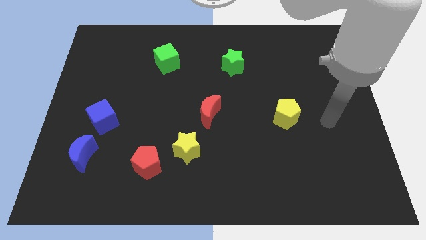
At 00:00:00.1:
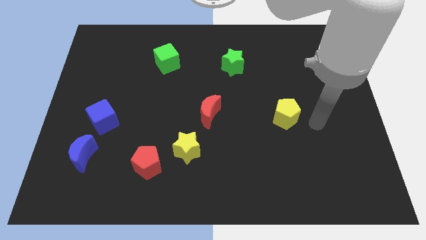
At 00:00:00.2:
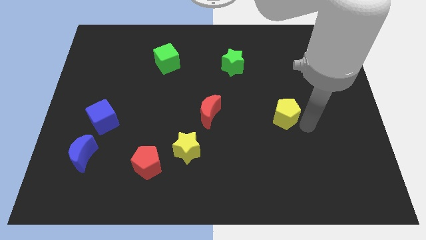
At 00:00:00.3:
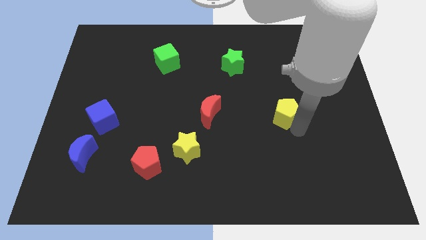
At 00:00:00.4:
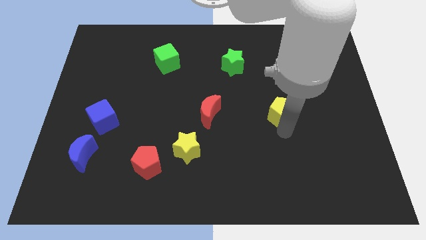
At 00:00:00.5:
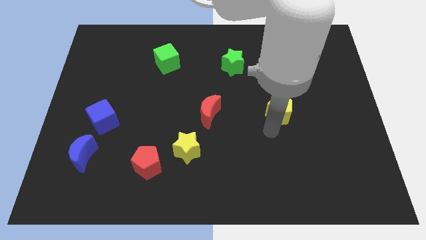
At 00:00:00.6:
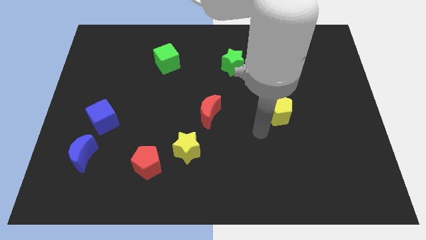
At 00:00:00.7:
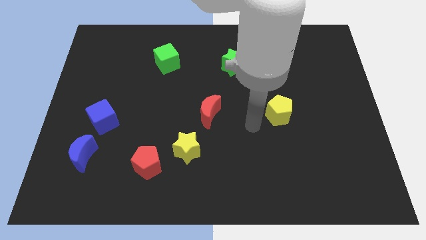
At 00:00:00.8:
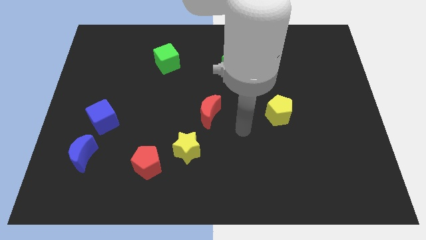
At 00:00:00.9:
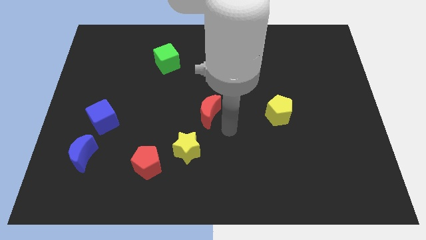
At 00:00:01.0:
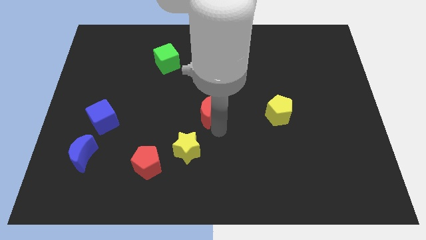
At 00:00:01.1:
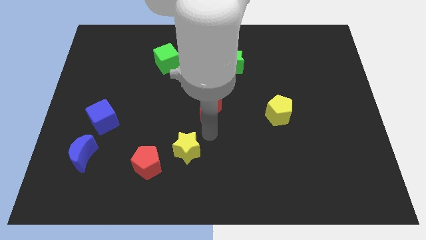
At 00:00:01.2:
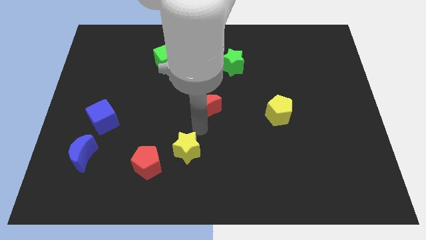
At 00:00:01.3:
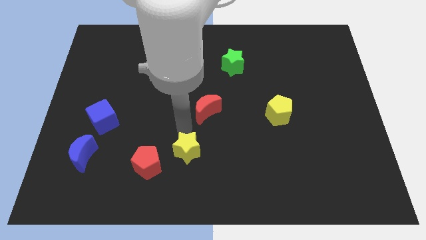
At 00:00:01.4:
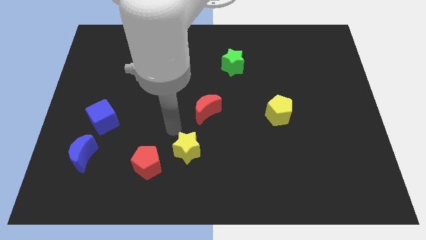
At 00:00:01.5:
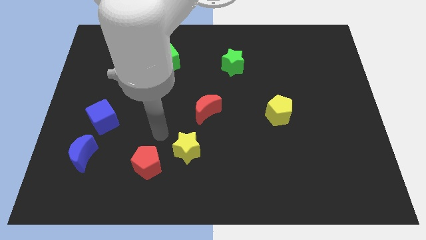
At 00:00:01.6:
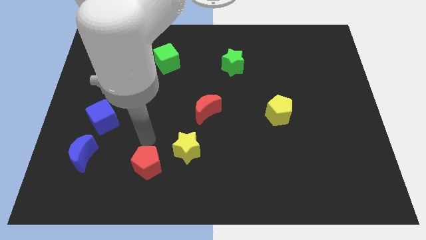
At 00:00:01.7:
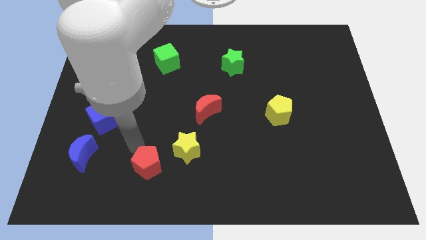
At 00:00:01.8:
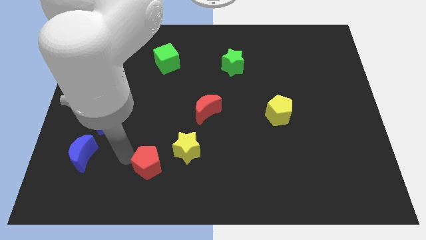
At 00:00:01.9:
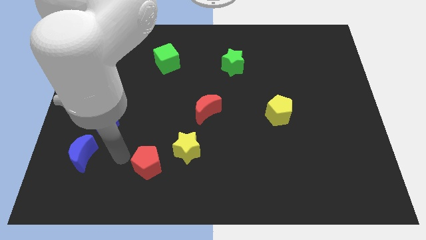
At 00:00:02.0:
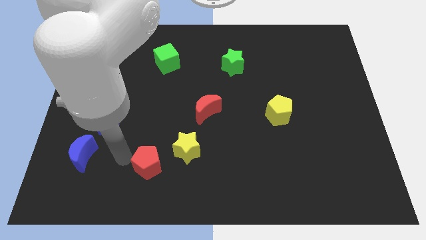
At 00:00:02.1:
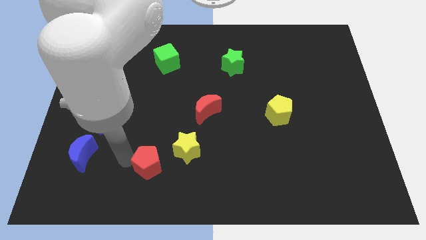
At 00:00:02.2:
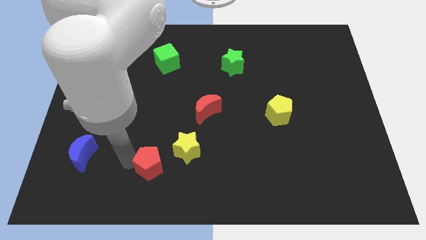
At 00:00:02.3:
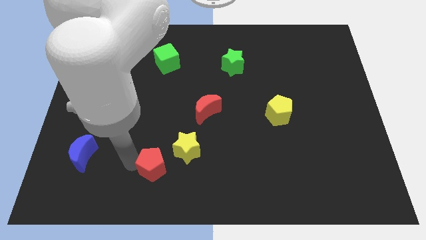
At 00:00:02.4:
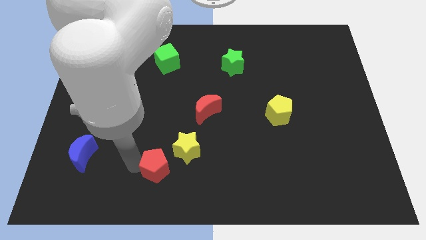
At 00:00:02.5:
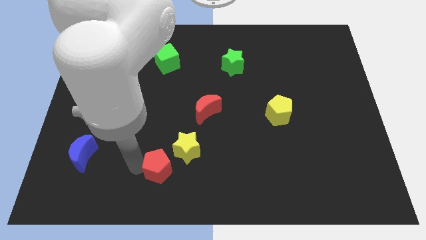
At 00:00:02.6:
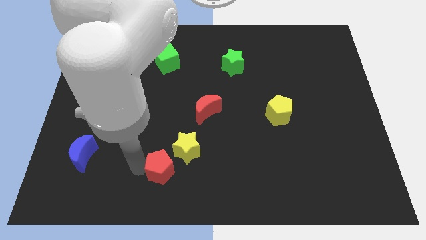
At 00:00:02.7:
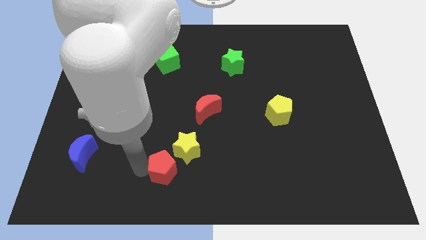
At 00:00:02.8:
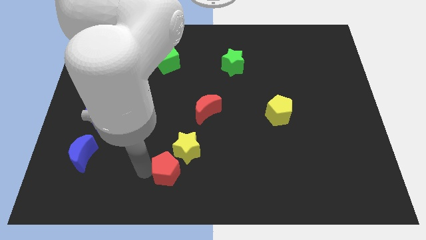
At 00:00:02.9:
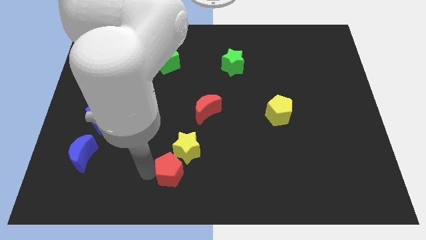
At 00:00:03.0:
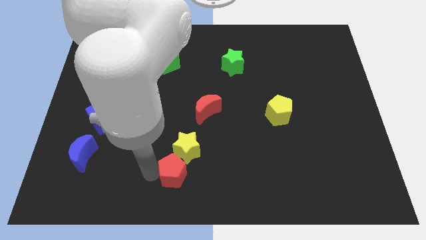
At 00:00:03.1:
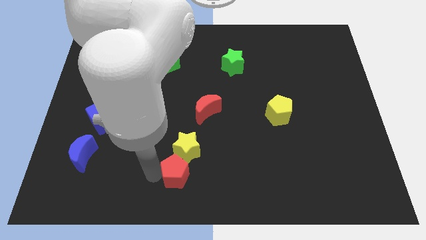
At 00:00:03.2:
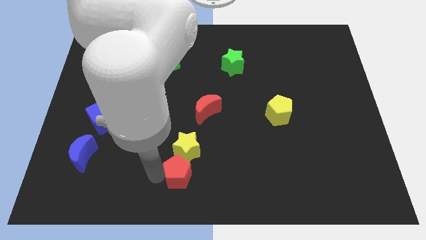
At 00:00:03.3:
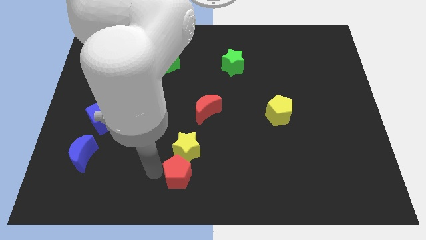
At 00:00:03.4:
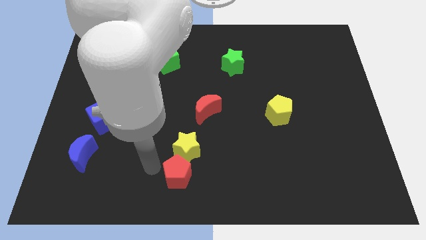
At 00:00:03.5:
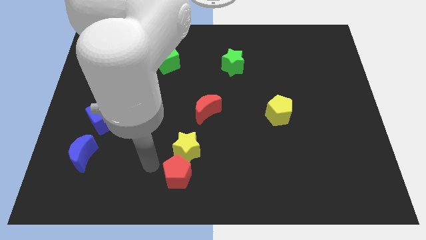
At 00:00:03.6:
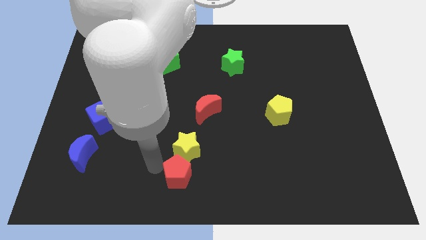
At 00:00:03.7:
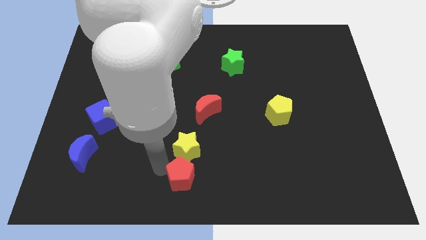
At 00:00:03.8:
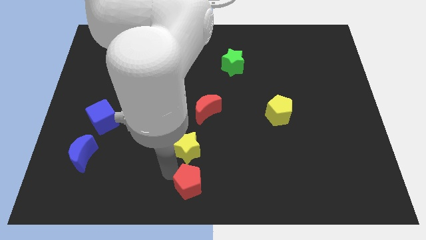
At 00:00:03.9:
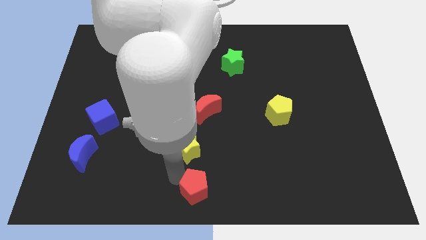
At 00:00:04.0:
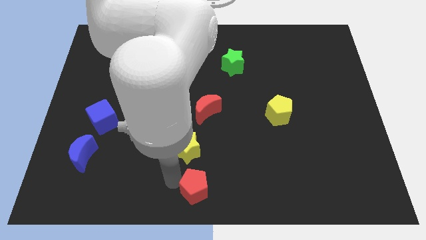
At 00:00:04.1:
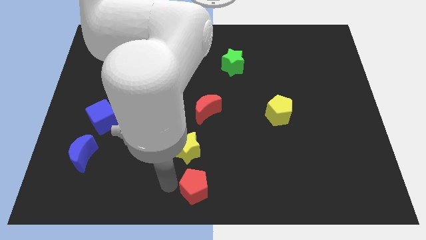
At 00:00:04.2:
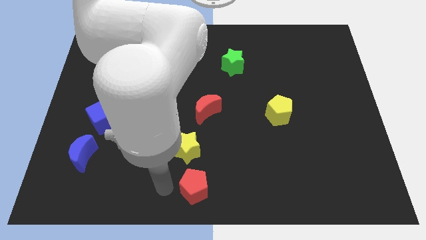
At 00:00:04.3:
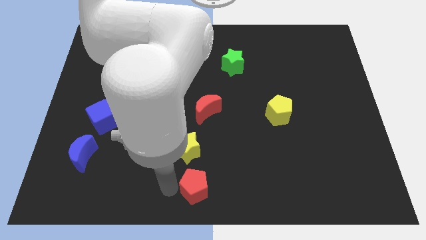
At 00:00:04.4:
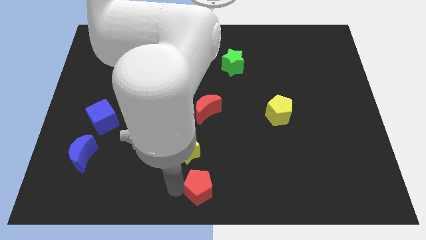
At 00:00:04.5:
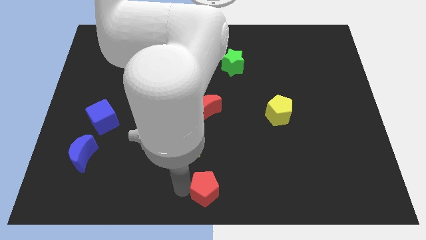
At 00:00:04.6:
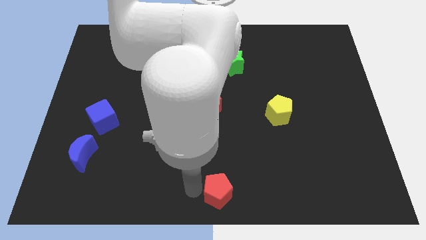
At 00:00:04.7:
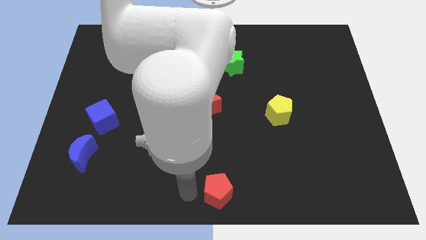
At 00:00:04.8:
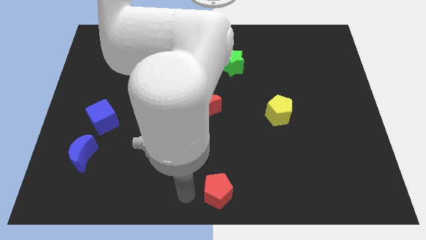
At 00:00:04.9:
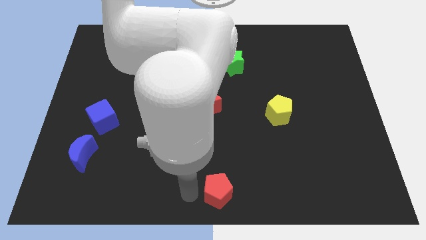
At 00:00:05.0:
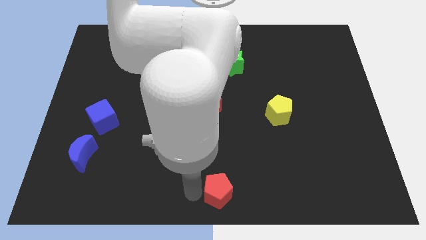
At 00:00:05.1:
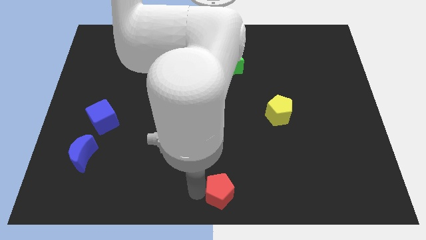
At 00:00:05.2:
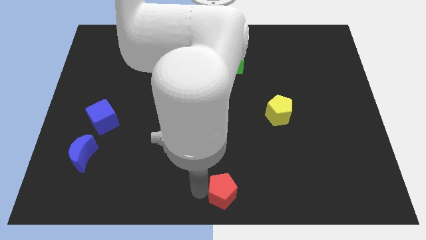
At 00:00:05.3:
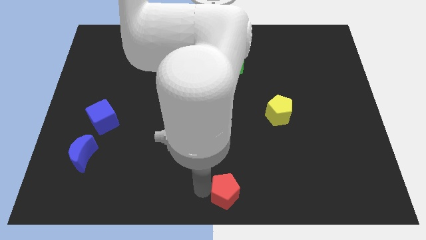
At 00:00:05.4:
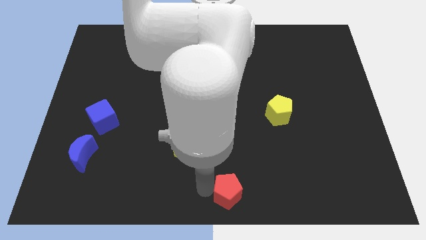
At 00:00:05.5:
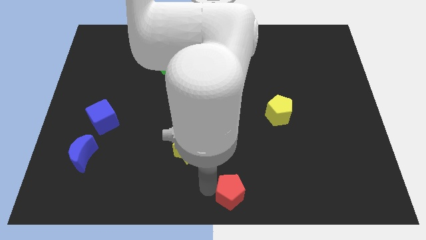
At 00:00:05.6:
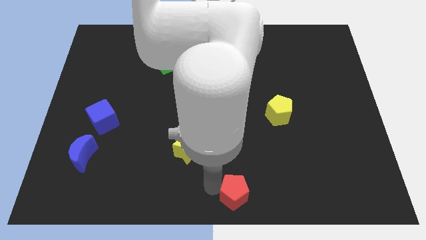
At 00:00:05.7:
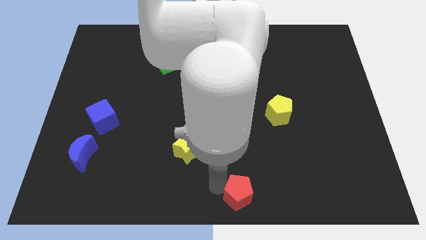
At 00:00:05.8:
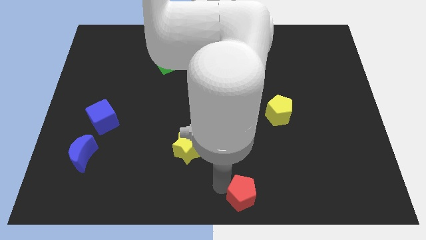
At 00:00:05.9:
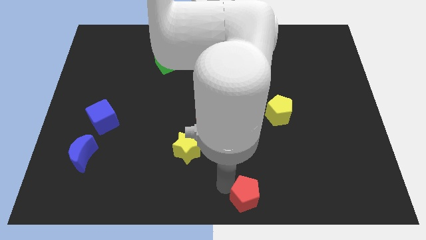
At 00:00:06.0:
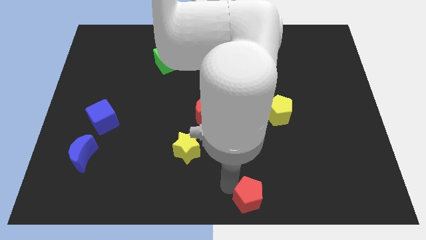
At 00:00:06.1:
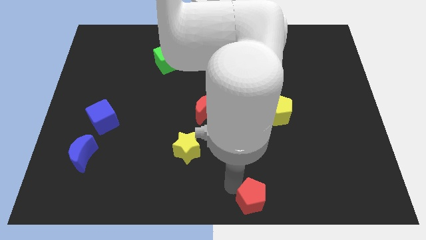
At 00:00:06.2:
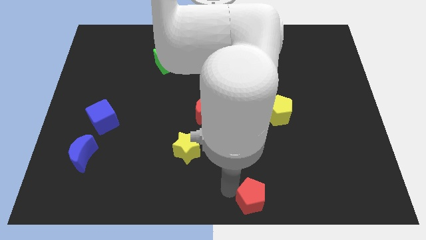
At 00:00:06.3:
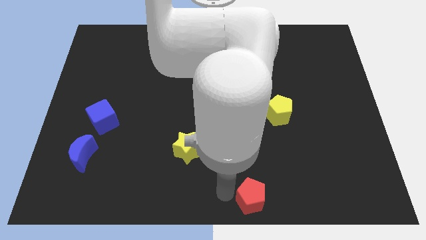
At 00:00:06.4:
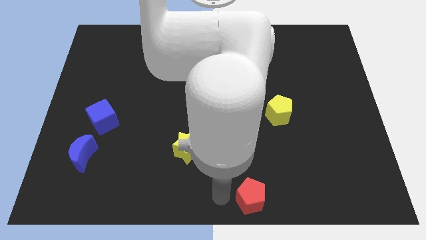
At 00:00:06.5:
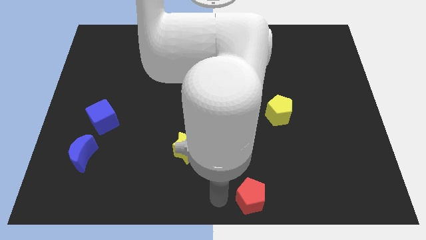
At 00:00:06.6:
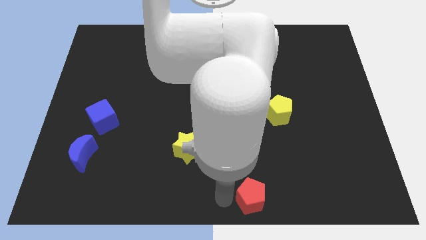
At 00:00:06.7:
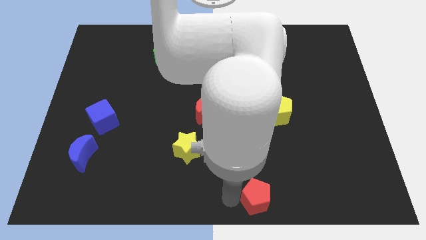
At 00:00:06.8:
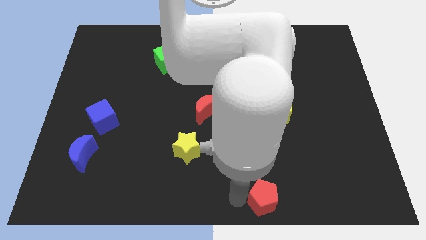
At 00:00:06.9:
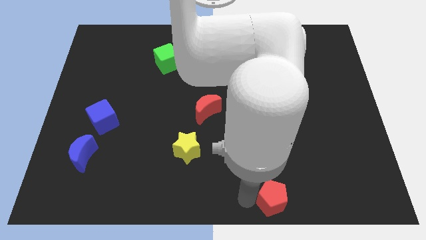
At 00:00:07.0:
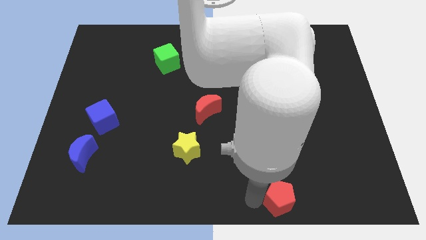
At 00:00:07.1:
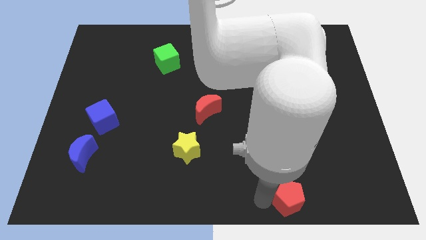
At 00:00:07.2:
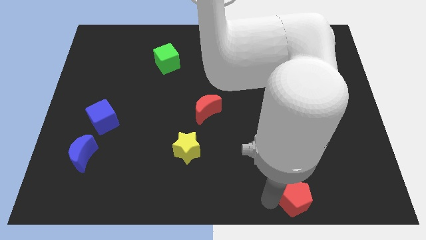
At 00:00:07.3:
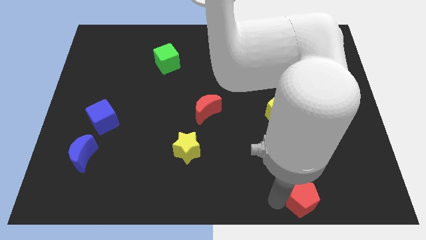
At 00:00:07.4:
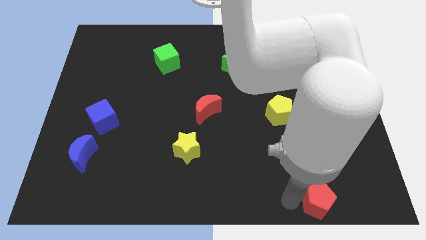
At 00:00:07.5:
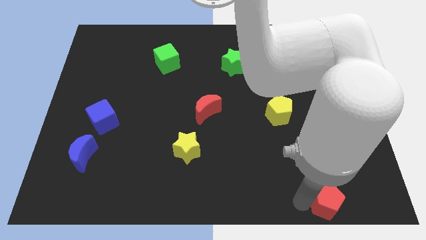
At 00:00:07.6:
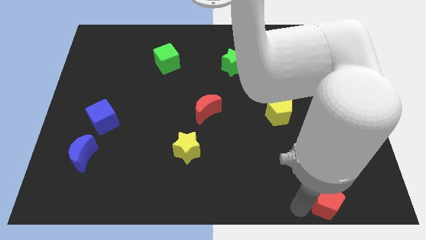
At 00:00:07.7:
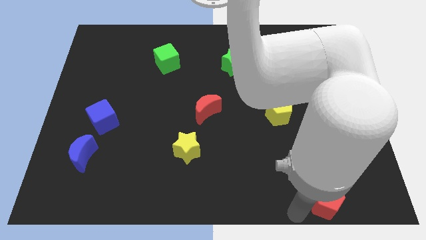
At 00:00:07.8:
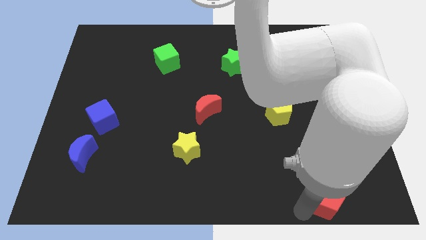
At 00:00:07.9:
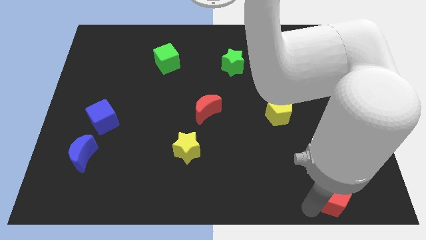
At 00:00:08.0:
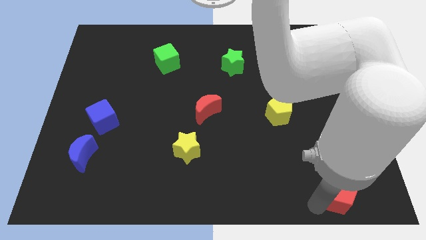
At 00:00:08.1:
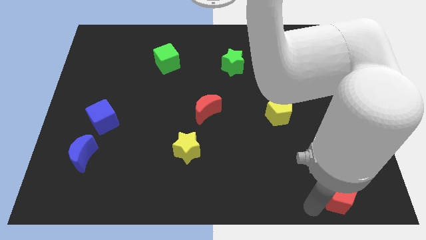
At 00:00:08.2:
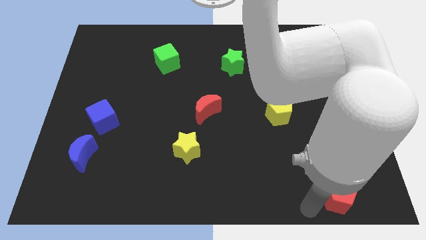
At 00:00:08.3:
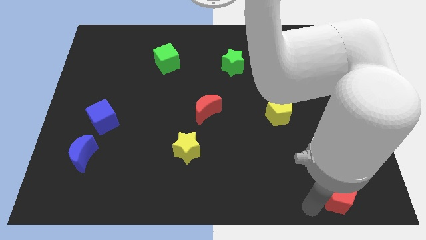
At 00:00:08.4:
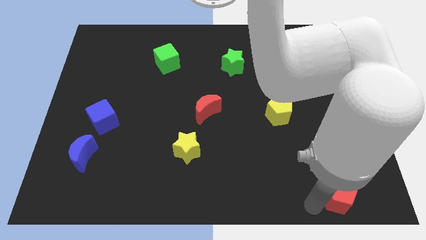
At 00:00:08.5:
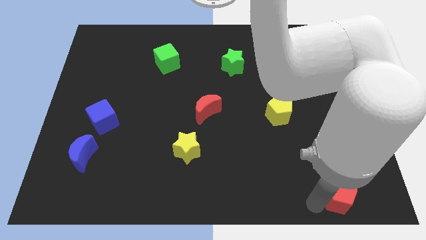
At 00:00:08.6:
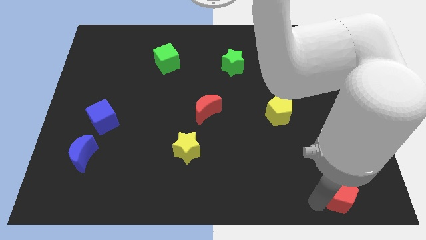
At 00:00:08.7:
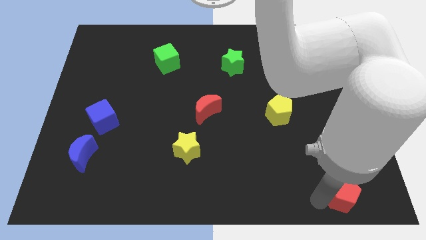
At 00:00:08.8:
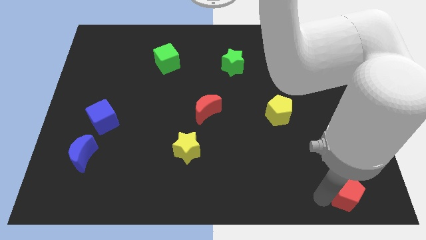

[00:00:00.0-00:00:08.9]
push the red pentagon to the bottom right of the board
